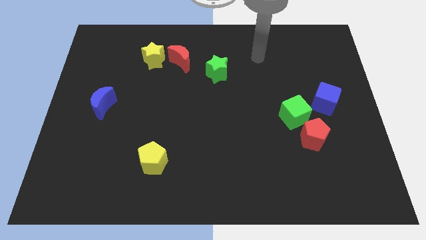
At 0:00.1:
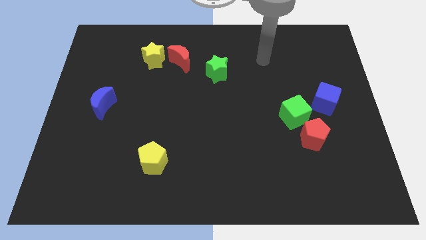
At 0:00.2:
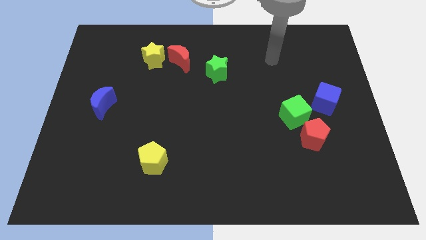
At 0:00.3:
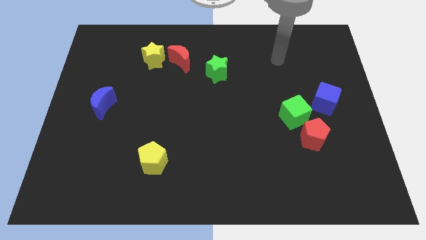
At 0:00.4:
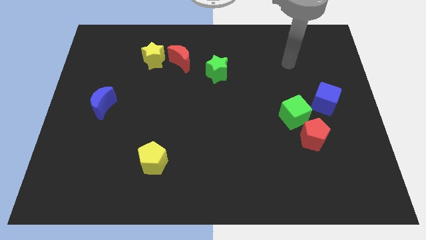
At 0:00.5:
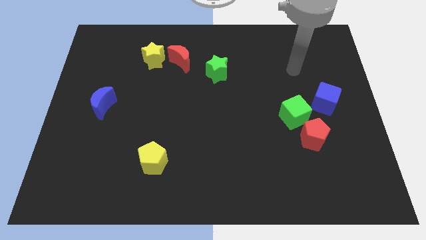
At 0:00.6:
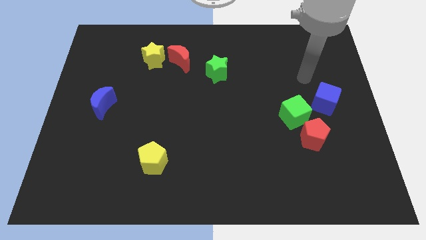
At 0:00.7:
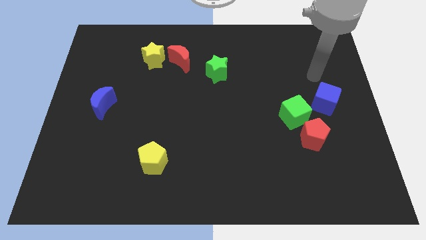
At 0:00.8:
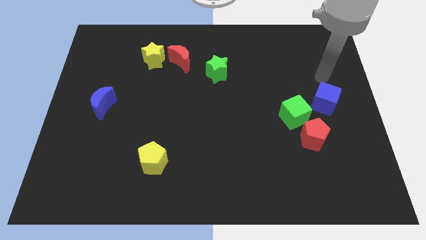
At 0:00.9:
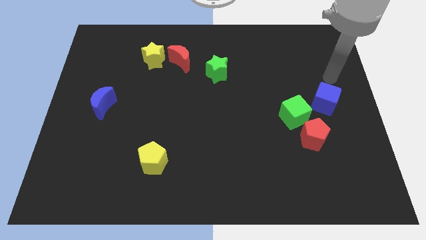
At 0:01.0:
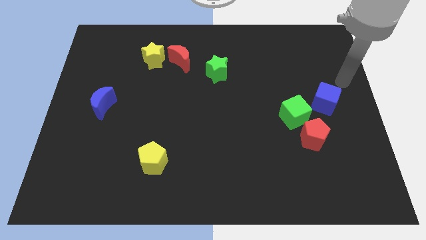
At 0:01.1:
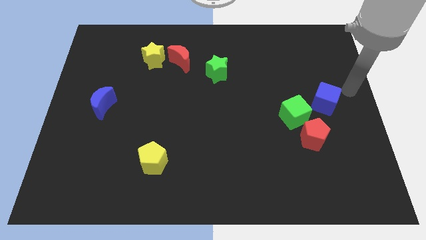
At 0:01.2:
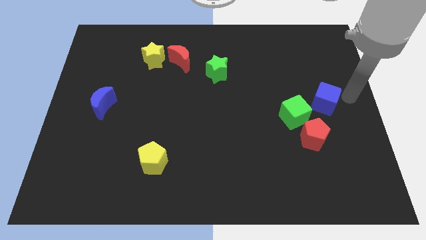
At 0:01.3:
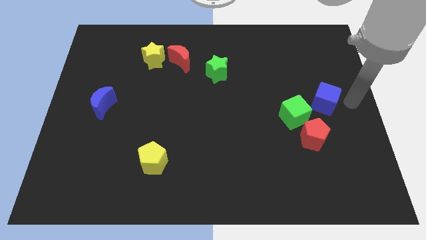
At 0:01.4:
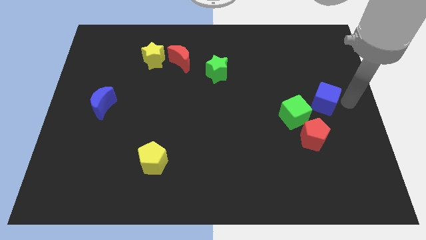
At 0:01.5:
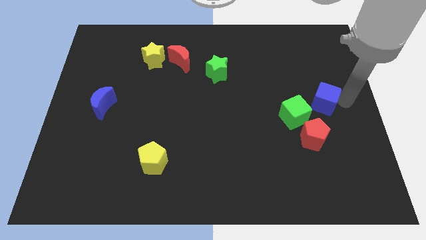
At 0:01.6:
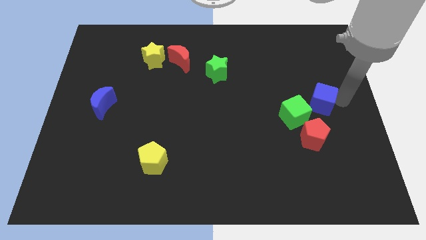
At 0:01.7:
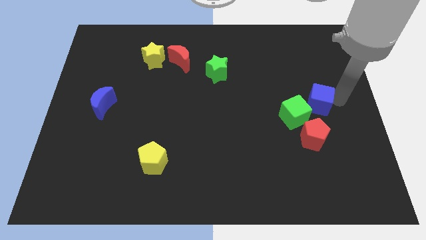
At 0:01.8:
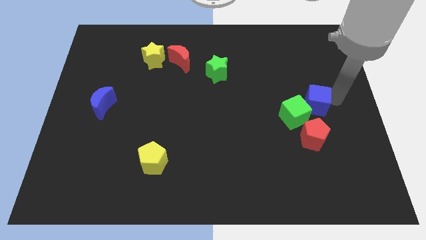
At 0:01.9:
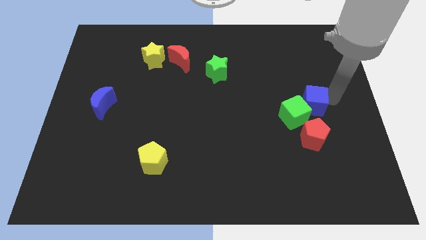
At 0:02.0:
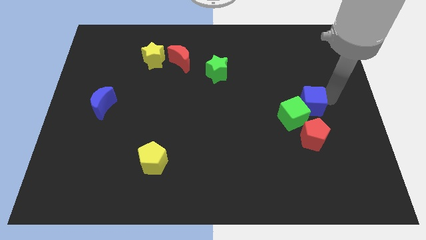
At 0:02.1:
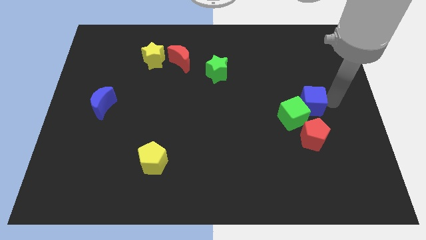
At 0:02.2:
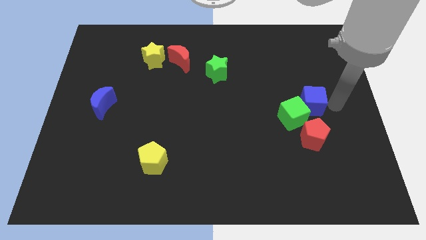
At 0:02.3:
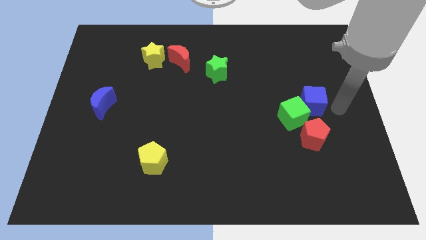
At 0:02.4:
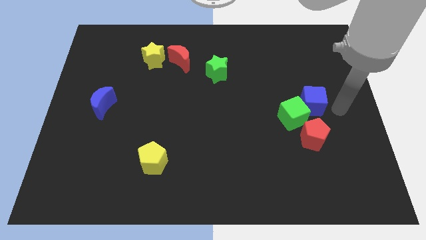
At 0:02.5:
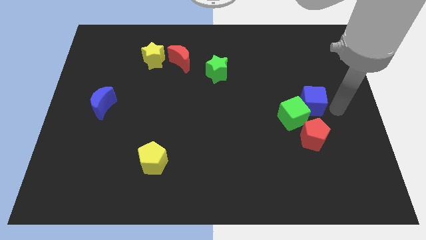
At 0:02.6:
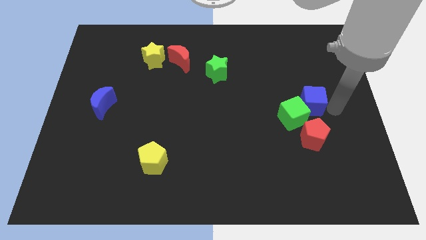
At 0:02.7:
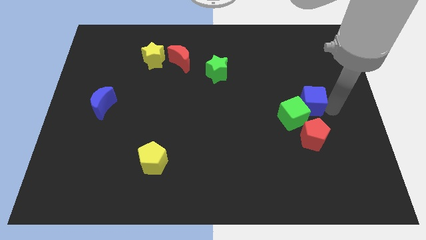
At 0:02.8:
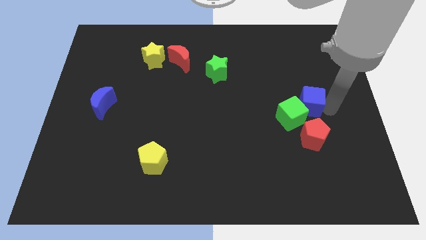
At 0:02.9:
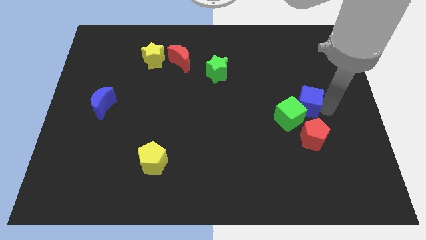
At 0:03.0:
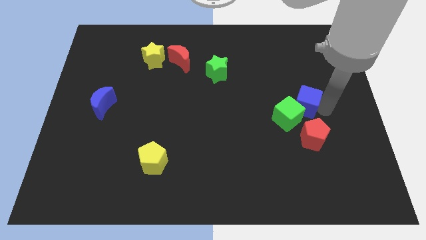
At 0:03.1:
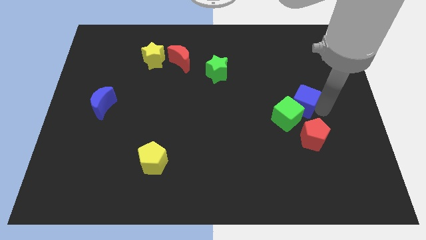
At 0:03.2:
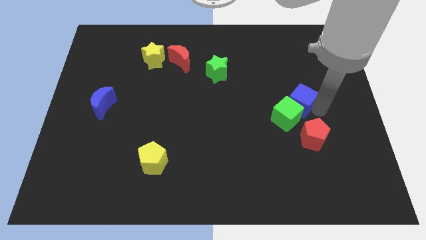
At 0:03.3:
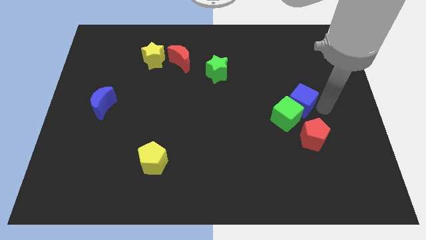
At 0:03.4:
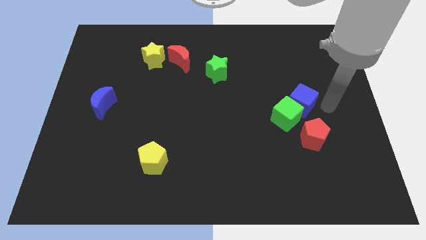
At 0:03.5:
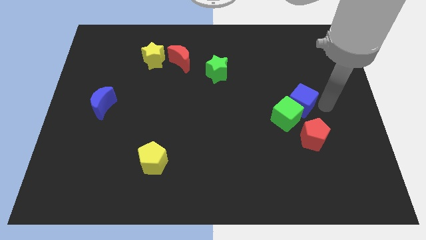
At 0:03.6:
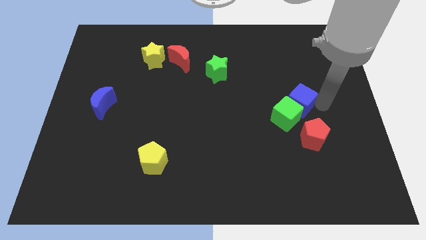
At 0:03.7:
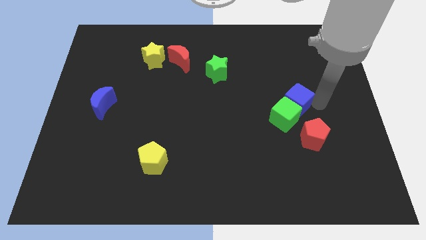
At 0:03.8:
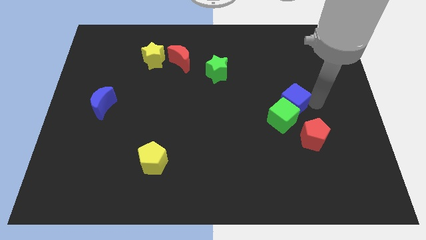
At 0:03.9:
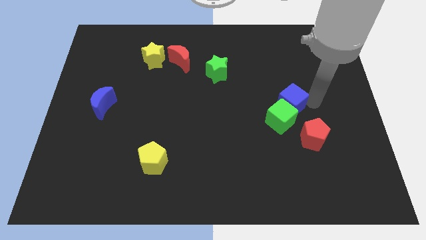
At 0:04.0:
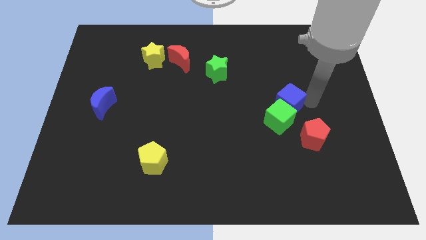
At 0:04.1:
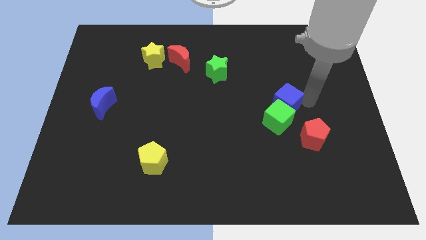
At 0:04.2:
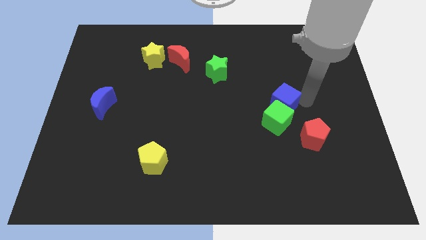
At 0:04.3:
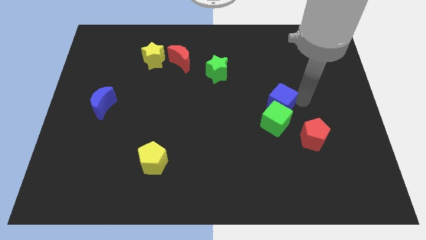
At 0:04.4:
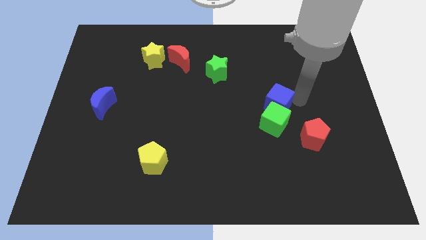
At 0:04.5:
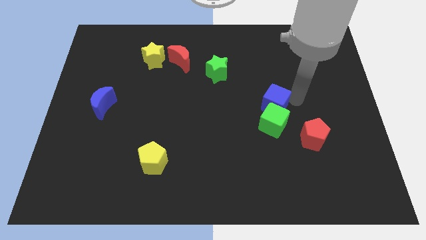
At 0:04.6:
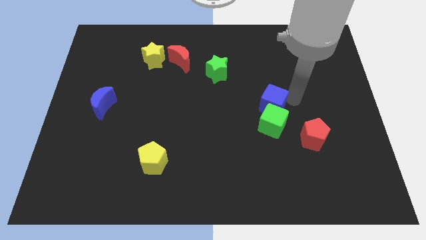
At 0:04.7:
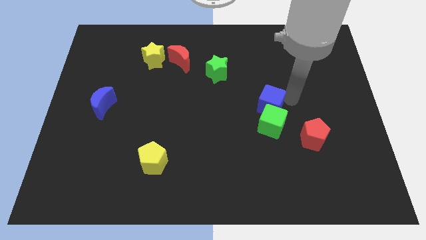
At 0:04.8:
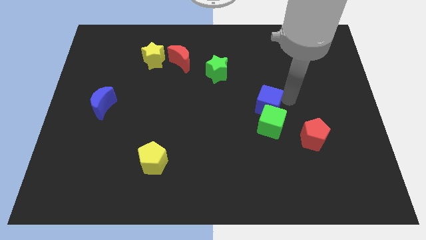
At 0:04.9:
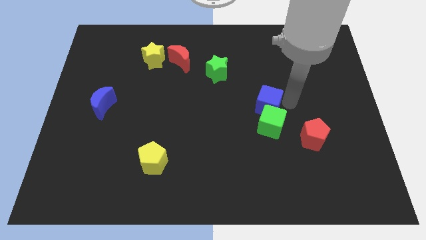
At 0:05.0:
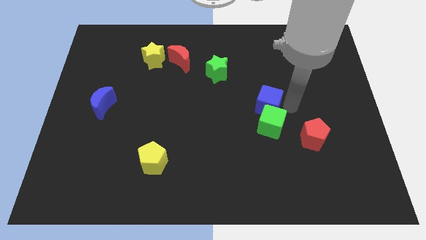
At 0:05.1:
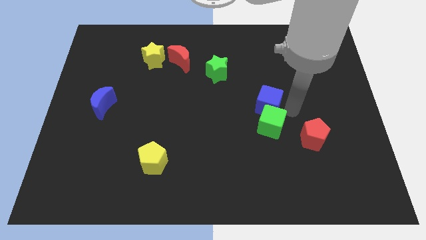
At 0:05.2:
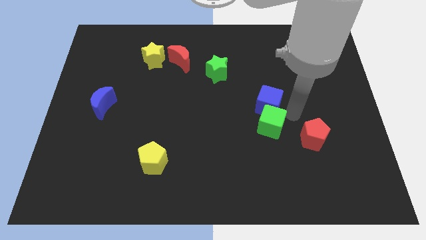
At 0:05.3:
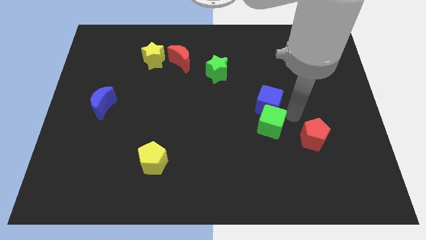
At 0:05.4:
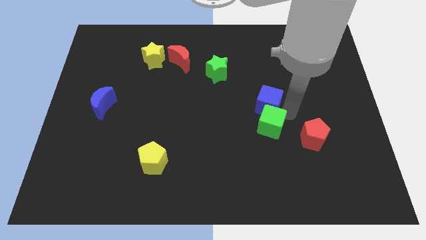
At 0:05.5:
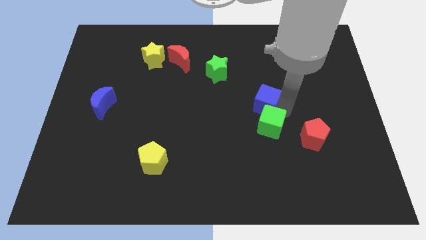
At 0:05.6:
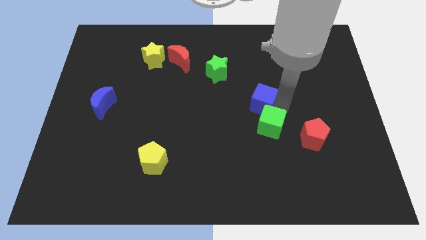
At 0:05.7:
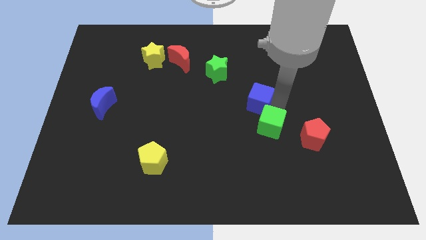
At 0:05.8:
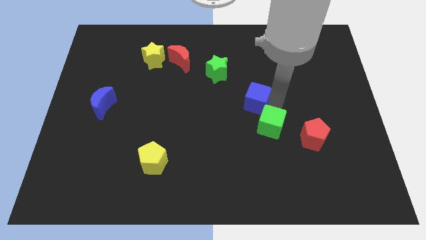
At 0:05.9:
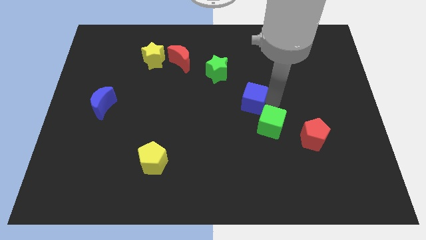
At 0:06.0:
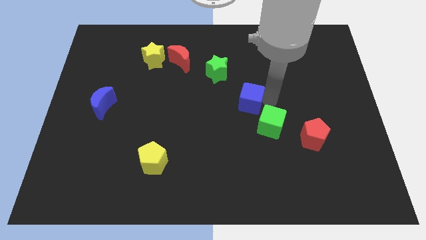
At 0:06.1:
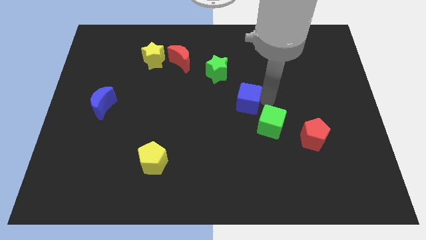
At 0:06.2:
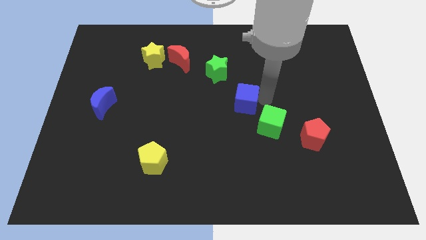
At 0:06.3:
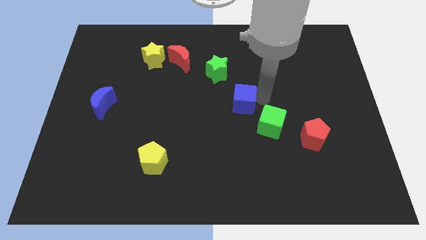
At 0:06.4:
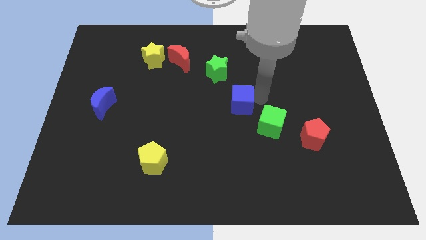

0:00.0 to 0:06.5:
slide the blue cube left

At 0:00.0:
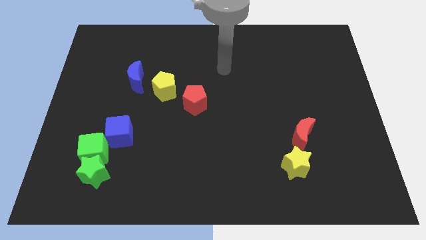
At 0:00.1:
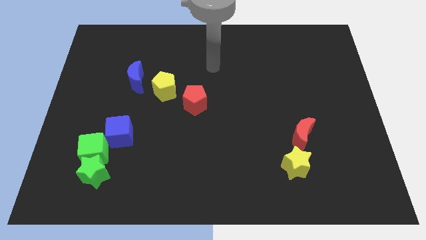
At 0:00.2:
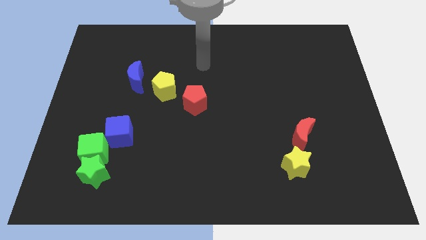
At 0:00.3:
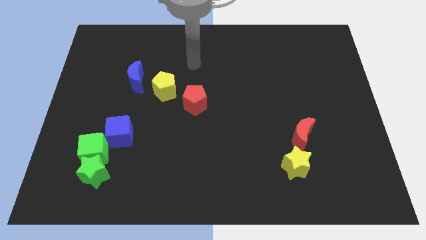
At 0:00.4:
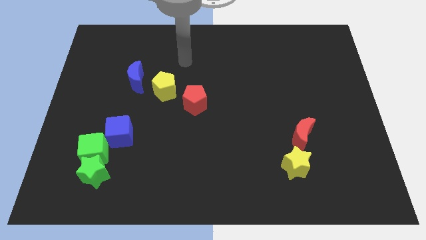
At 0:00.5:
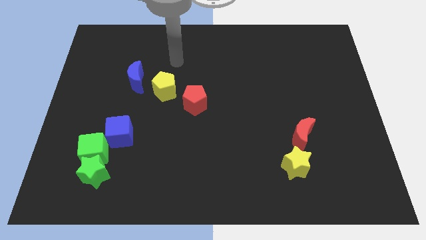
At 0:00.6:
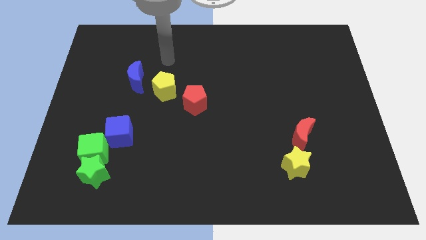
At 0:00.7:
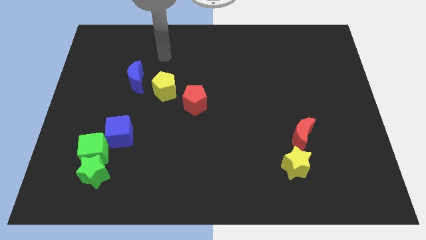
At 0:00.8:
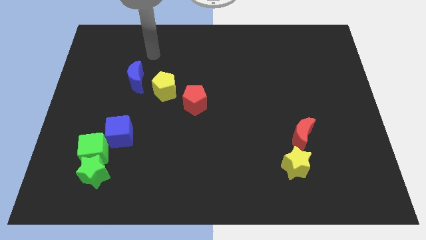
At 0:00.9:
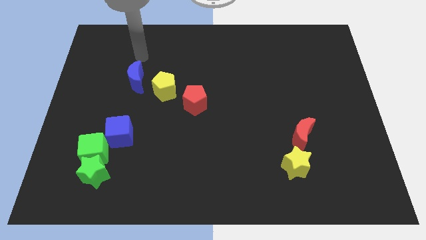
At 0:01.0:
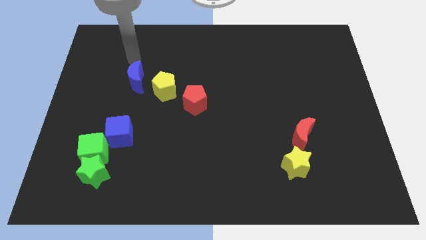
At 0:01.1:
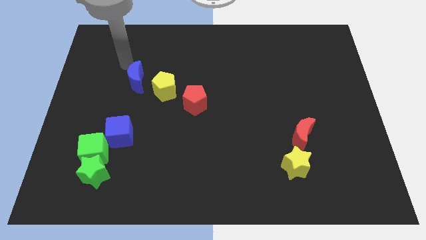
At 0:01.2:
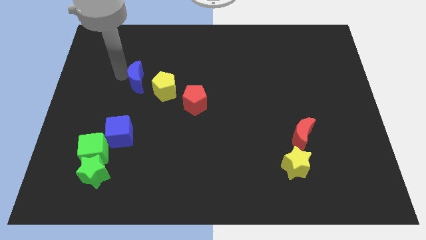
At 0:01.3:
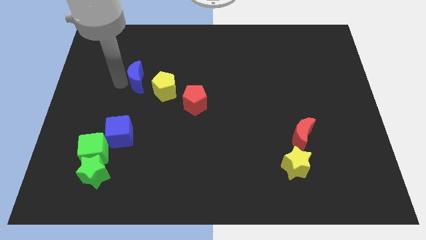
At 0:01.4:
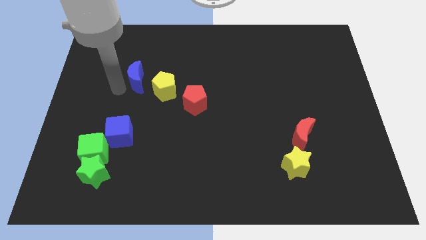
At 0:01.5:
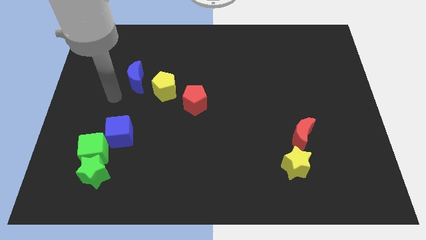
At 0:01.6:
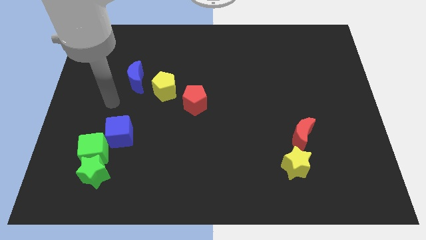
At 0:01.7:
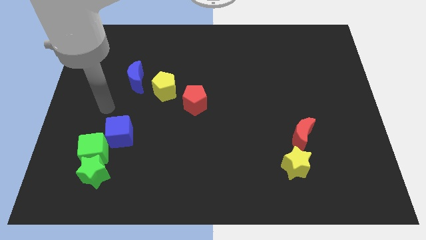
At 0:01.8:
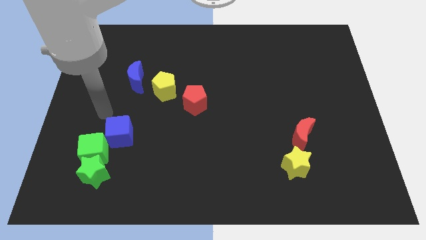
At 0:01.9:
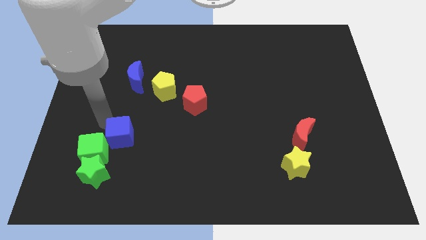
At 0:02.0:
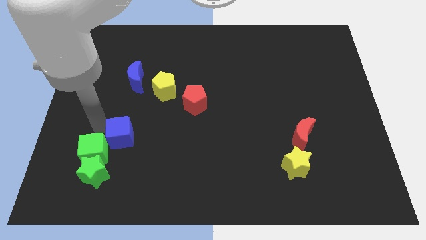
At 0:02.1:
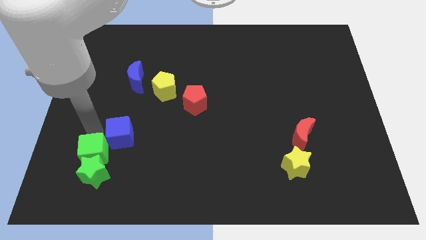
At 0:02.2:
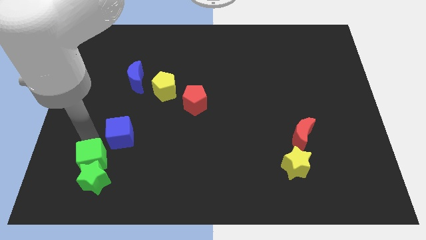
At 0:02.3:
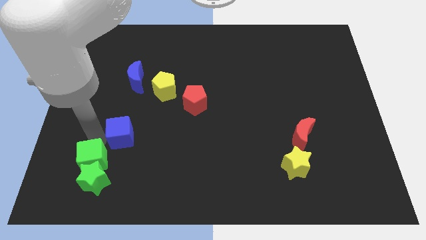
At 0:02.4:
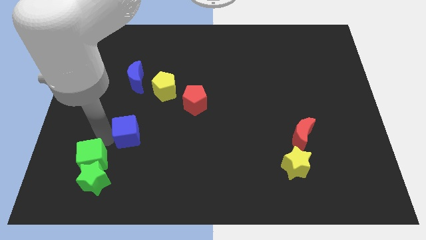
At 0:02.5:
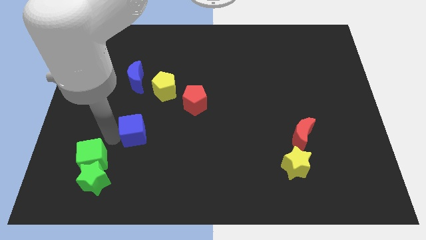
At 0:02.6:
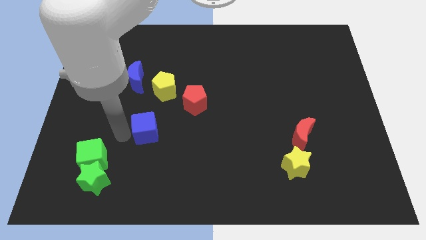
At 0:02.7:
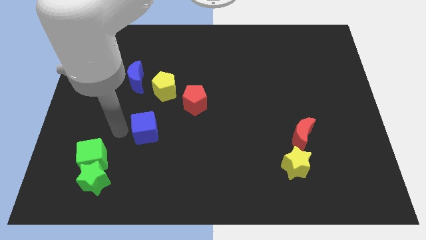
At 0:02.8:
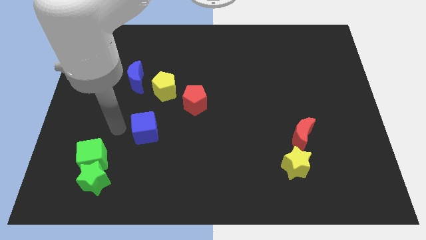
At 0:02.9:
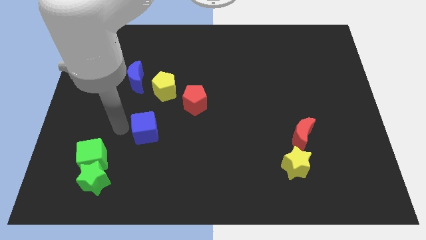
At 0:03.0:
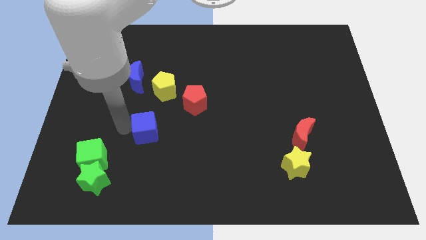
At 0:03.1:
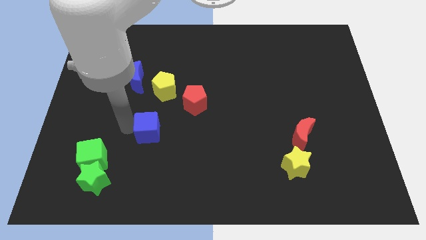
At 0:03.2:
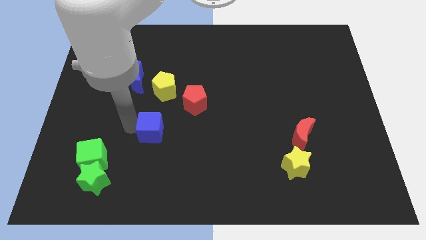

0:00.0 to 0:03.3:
push the blue cube right a bit
